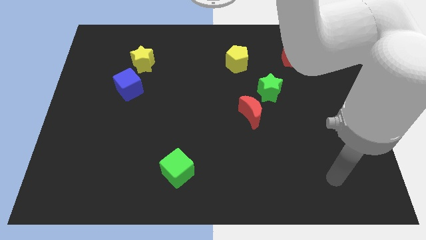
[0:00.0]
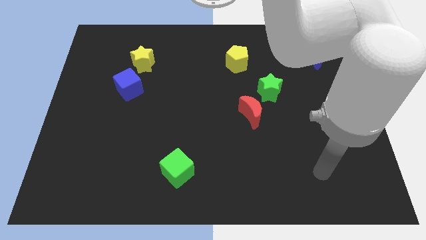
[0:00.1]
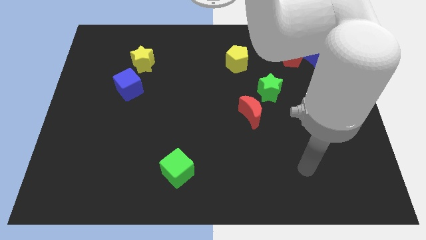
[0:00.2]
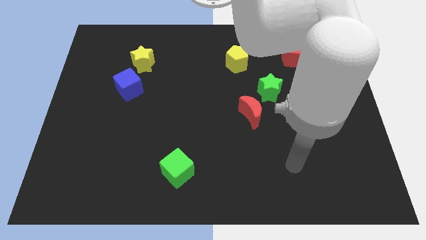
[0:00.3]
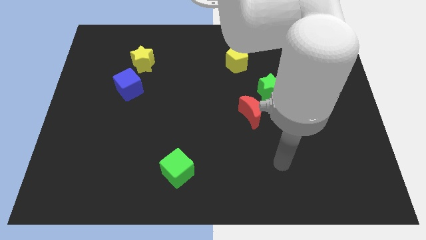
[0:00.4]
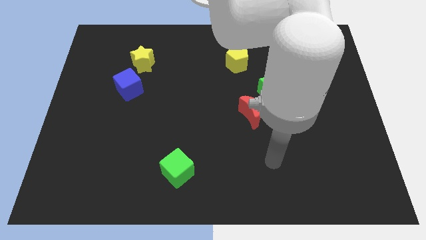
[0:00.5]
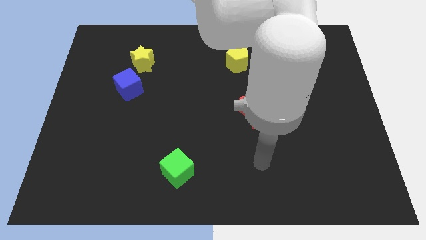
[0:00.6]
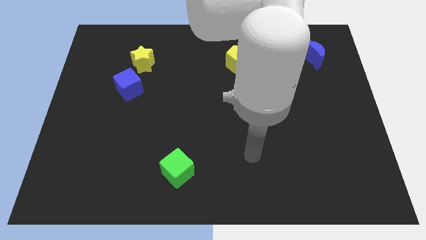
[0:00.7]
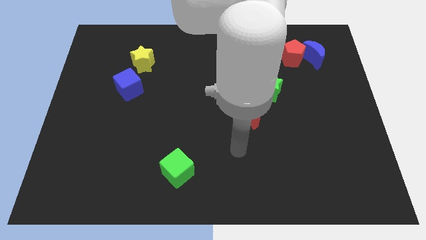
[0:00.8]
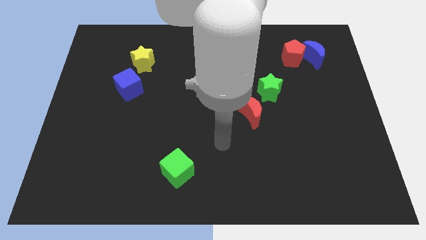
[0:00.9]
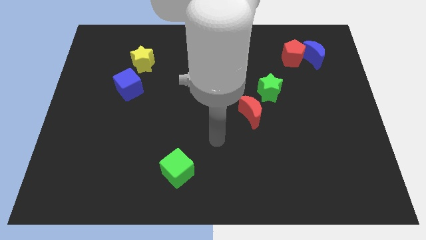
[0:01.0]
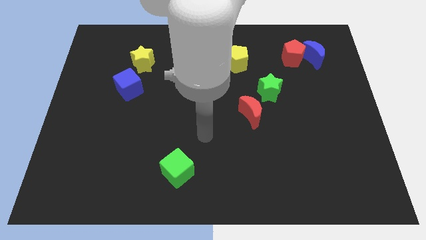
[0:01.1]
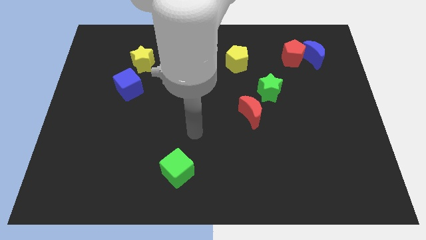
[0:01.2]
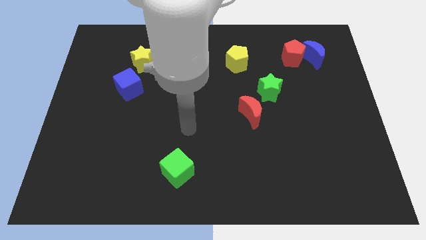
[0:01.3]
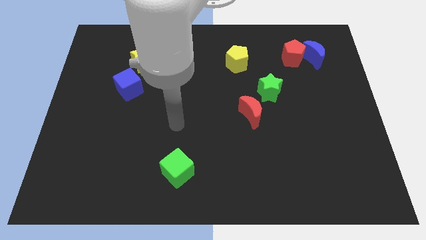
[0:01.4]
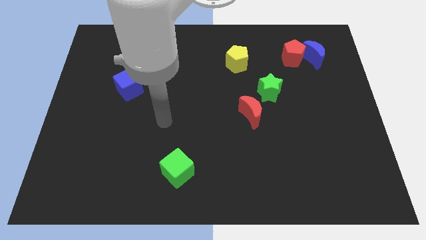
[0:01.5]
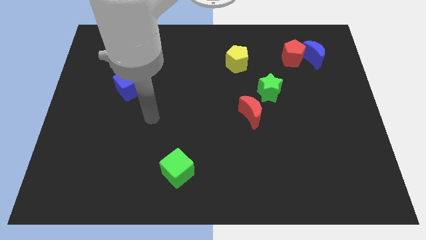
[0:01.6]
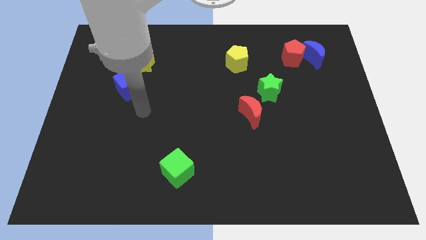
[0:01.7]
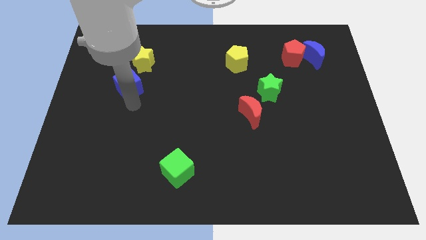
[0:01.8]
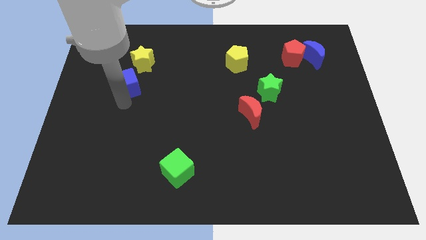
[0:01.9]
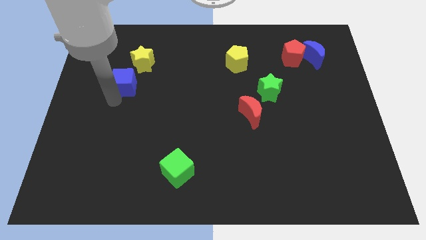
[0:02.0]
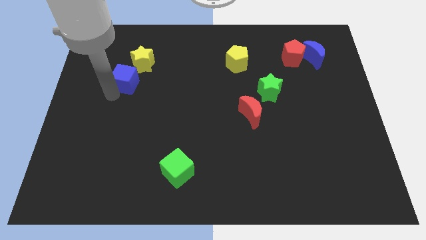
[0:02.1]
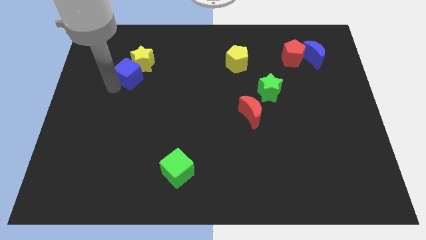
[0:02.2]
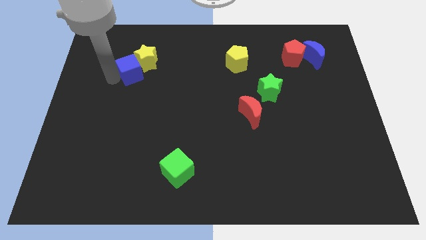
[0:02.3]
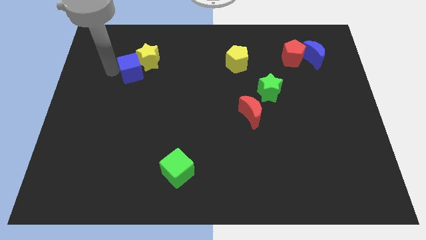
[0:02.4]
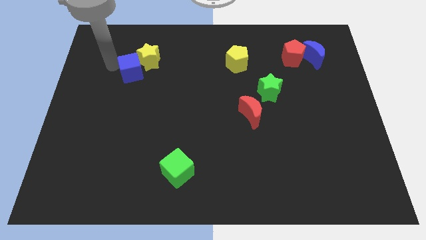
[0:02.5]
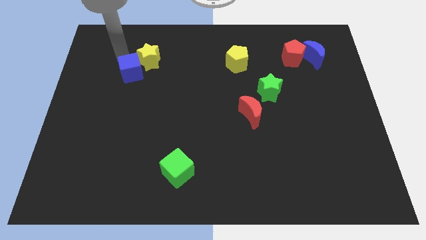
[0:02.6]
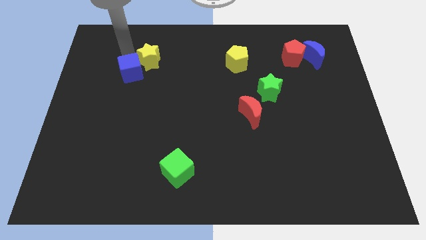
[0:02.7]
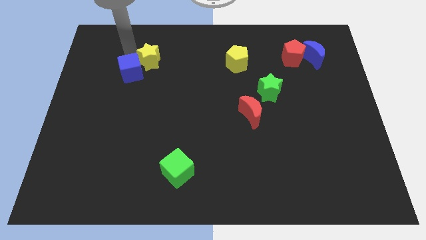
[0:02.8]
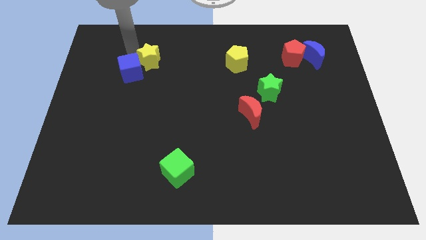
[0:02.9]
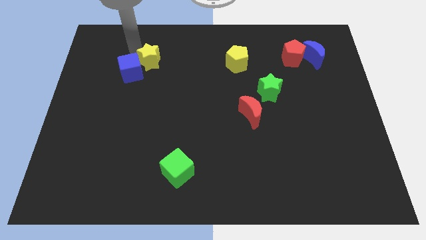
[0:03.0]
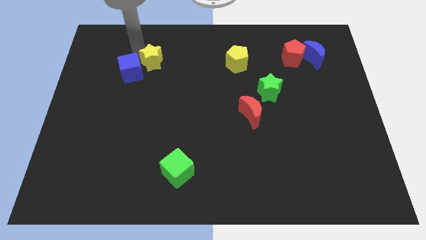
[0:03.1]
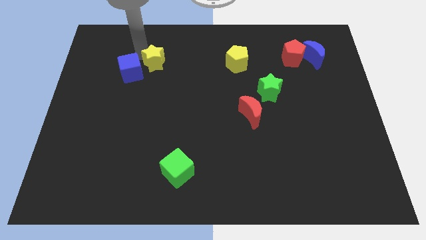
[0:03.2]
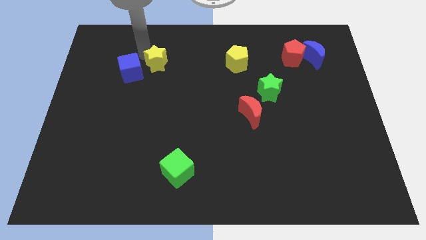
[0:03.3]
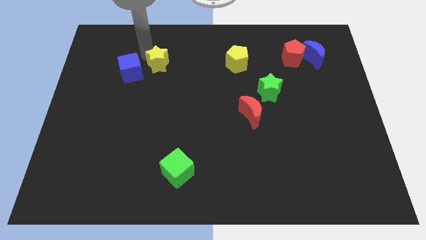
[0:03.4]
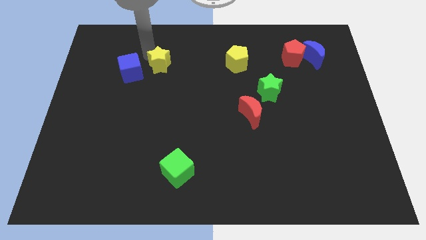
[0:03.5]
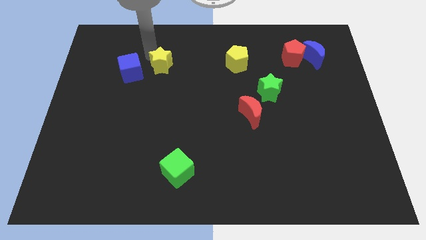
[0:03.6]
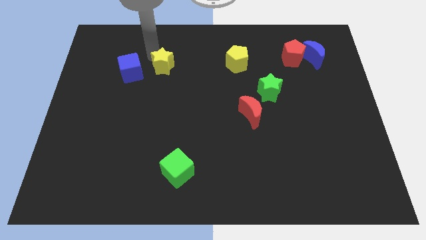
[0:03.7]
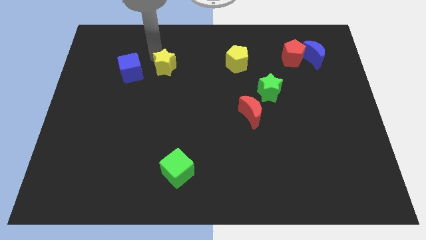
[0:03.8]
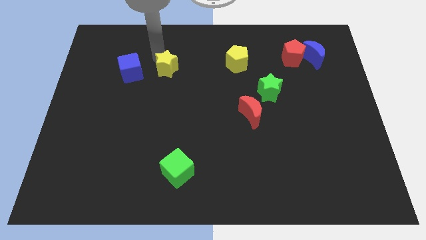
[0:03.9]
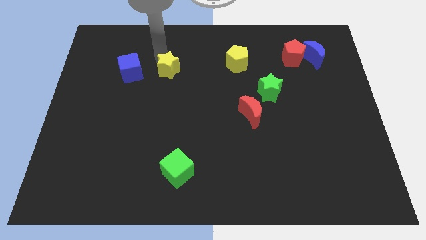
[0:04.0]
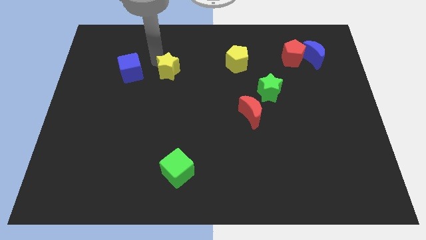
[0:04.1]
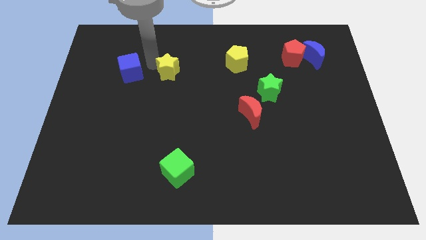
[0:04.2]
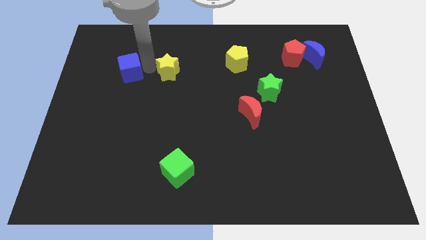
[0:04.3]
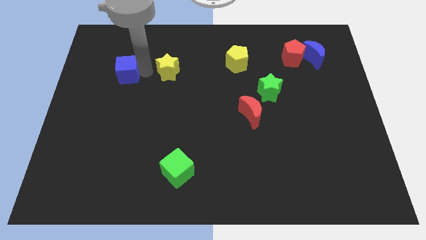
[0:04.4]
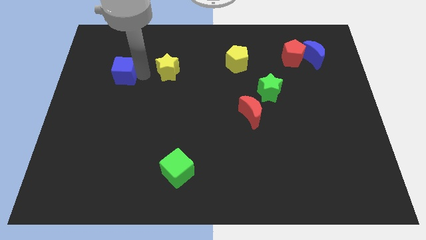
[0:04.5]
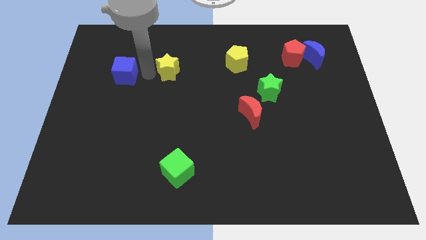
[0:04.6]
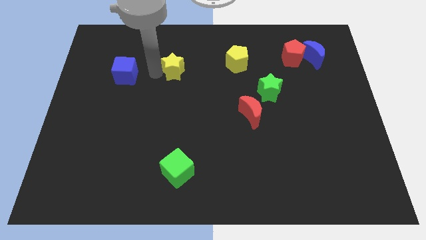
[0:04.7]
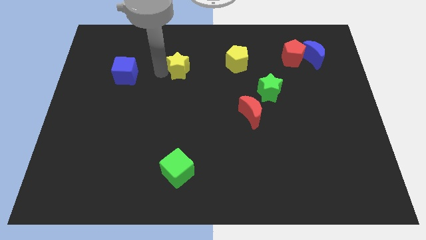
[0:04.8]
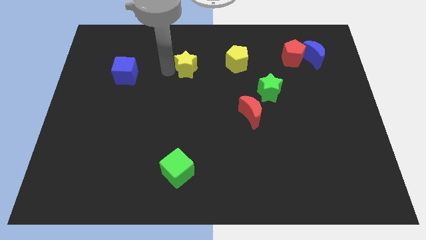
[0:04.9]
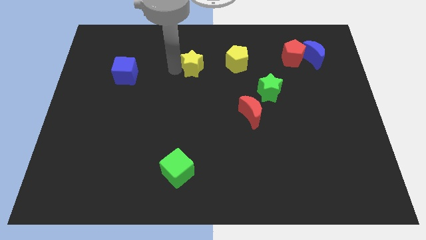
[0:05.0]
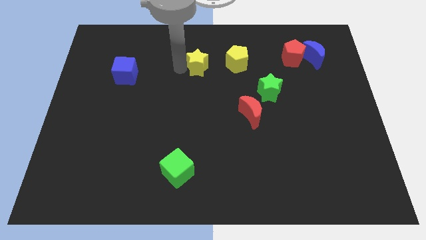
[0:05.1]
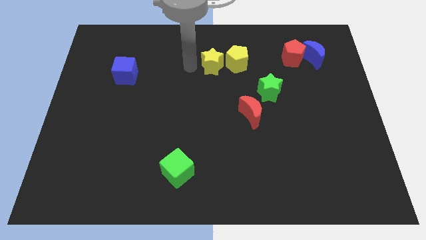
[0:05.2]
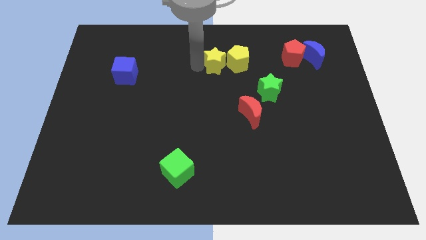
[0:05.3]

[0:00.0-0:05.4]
move the yellow star to the yellow pentagon

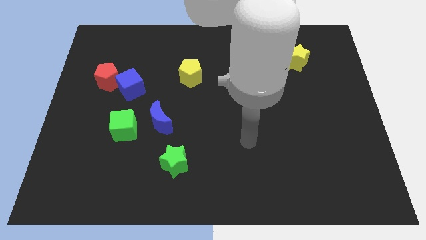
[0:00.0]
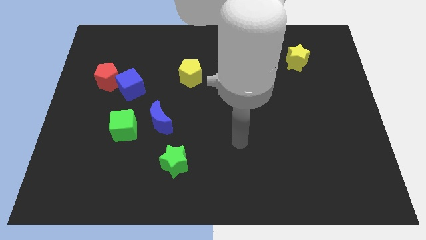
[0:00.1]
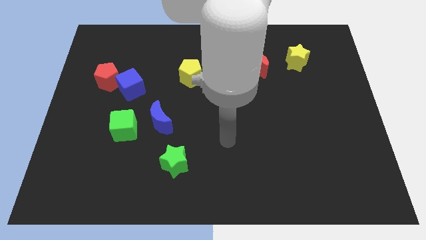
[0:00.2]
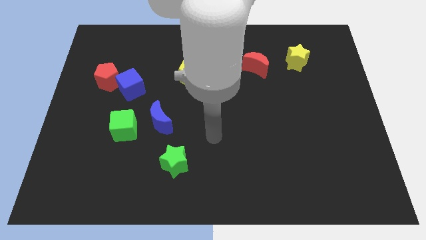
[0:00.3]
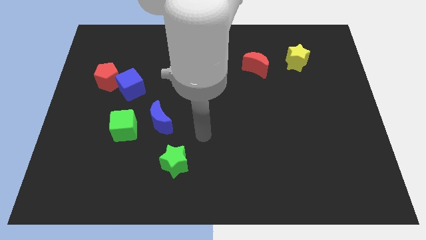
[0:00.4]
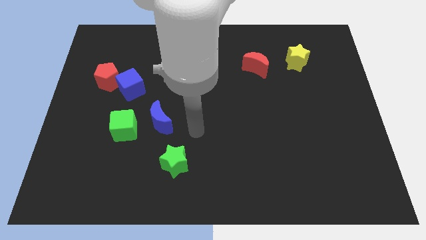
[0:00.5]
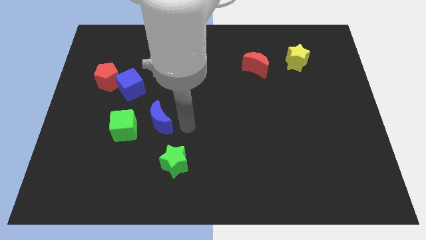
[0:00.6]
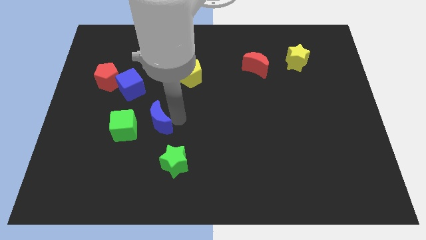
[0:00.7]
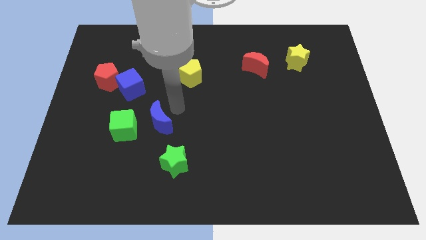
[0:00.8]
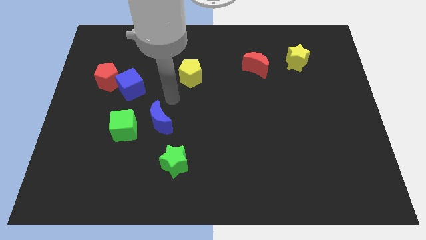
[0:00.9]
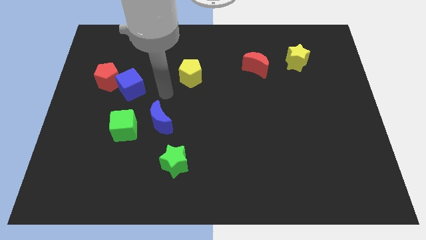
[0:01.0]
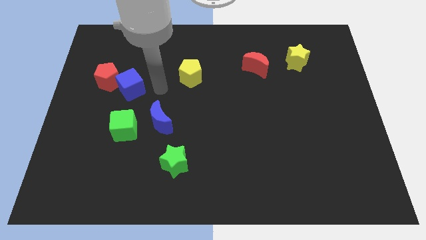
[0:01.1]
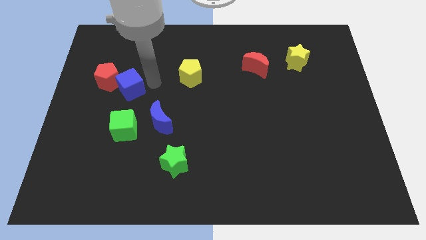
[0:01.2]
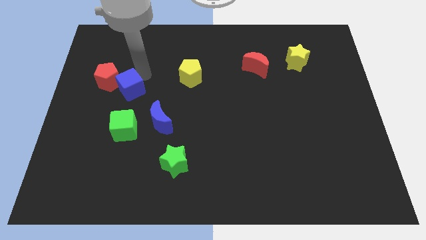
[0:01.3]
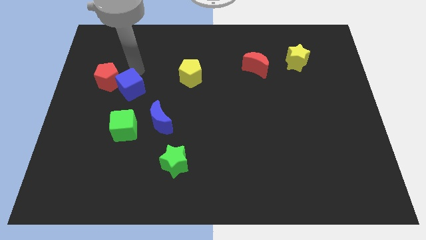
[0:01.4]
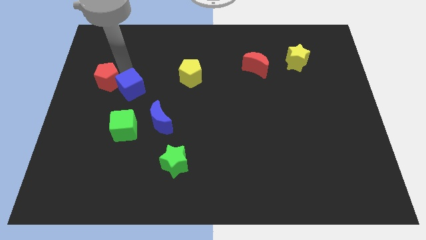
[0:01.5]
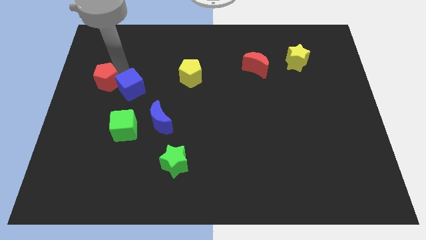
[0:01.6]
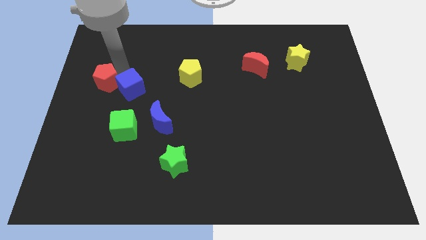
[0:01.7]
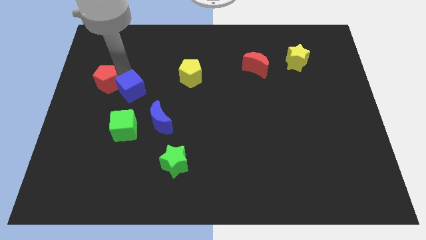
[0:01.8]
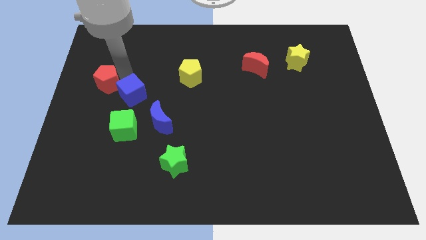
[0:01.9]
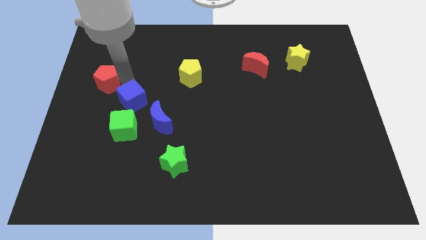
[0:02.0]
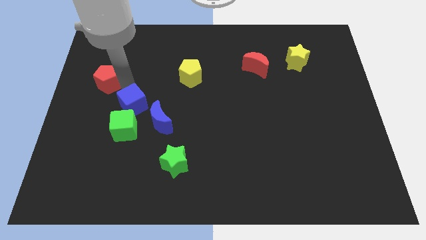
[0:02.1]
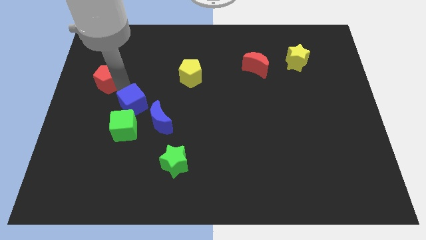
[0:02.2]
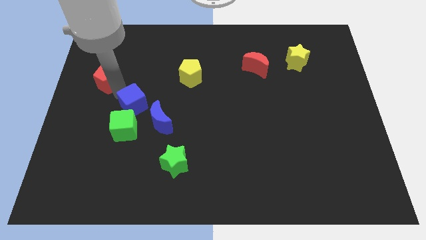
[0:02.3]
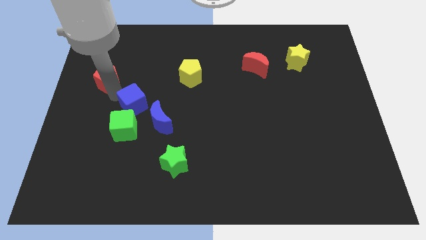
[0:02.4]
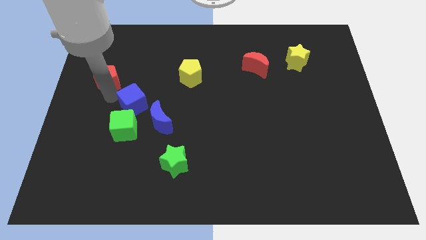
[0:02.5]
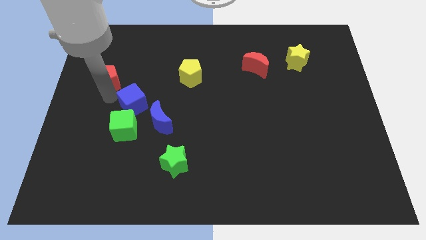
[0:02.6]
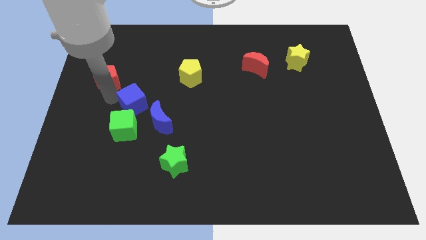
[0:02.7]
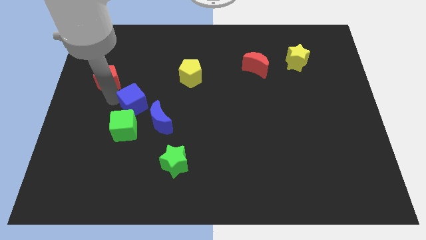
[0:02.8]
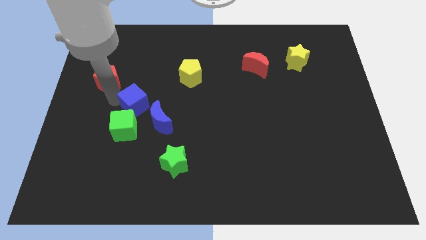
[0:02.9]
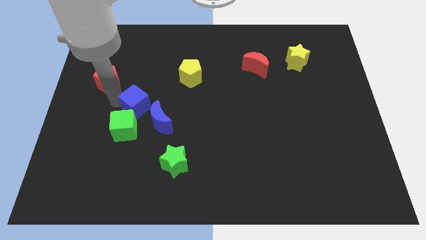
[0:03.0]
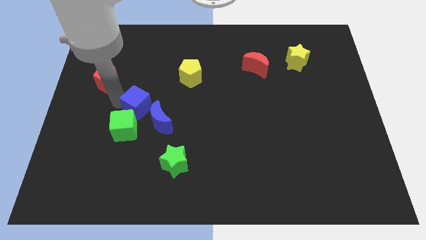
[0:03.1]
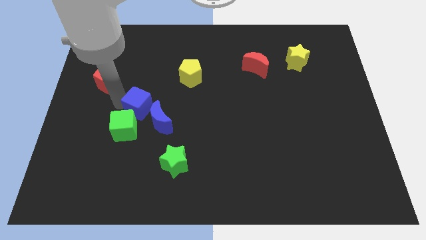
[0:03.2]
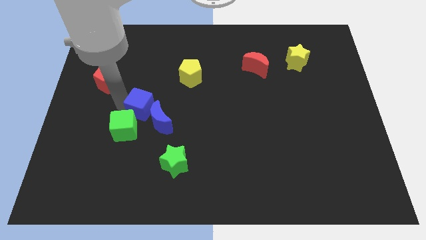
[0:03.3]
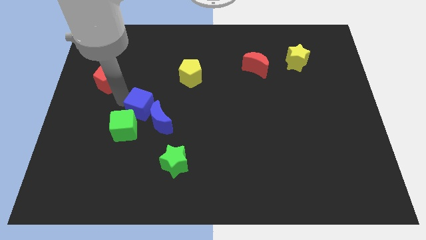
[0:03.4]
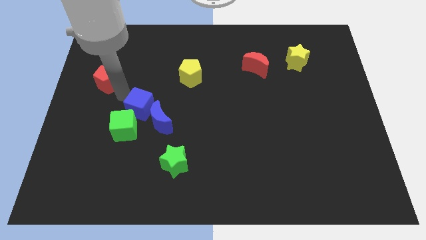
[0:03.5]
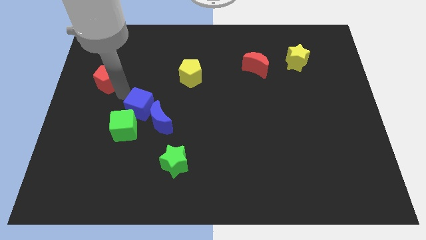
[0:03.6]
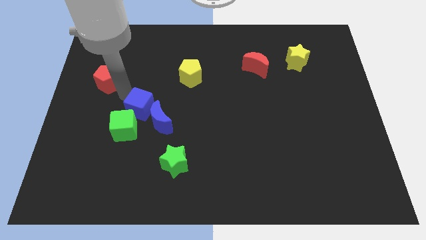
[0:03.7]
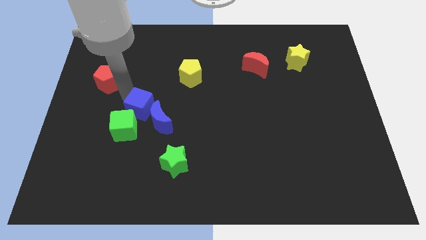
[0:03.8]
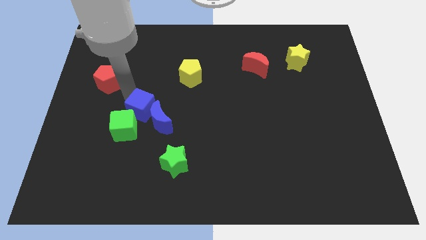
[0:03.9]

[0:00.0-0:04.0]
put the blue cube to the blue moon
